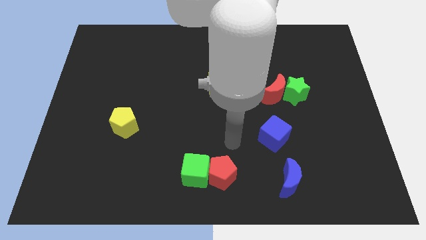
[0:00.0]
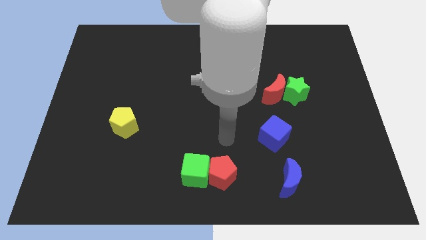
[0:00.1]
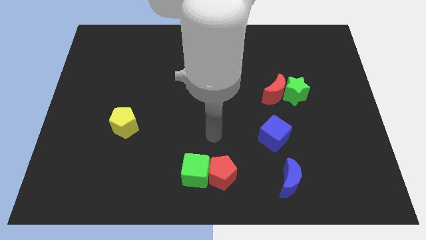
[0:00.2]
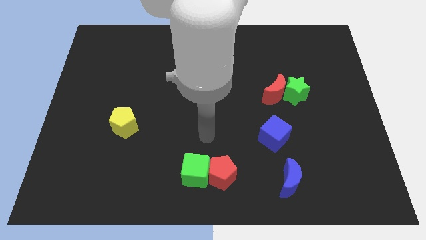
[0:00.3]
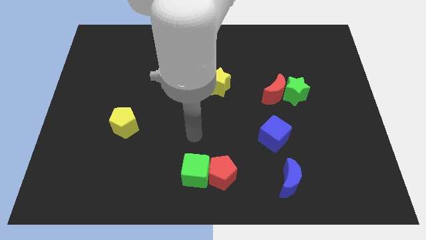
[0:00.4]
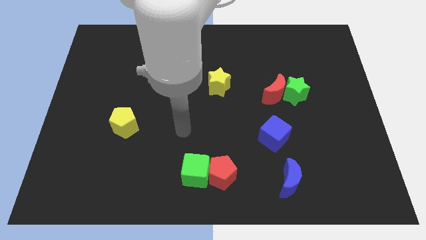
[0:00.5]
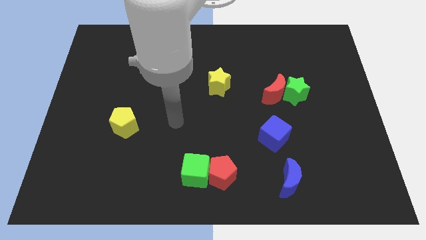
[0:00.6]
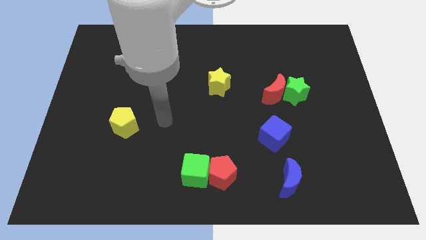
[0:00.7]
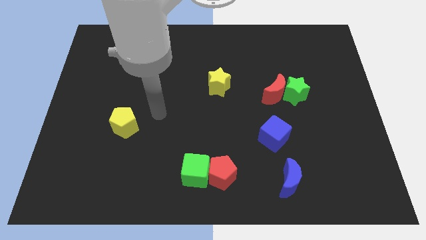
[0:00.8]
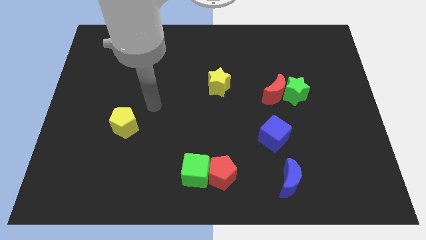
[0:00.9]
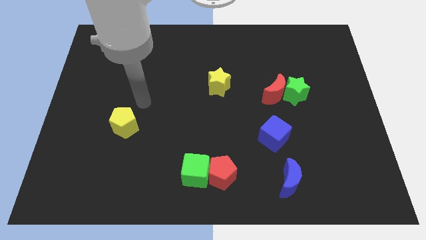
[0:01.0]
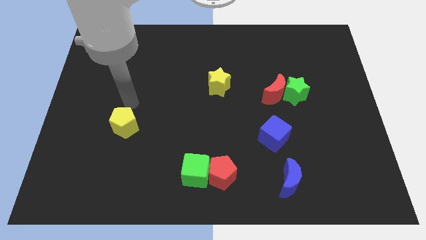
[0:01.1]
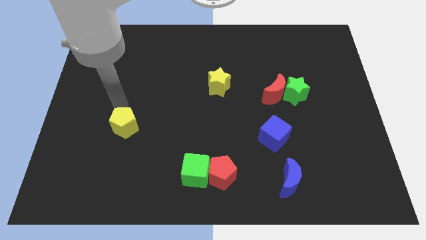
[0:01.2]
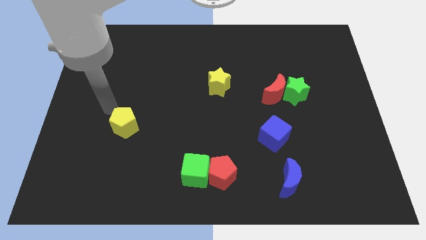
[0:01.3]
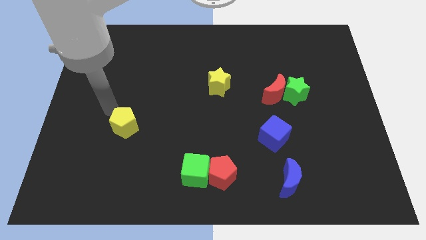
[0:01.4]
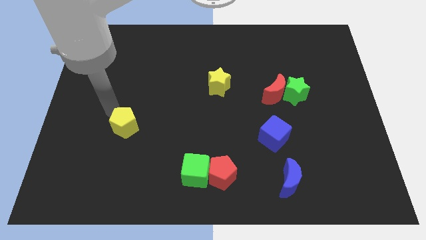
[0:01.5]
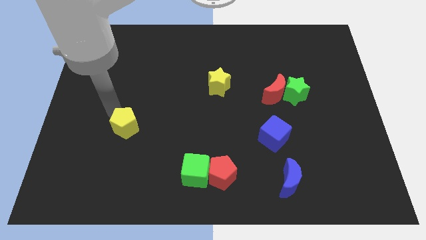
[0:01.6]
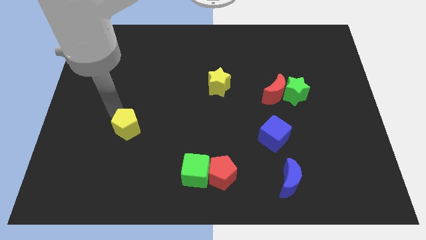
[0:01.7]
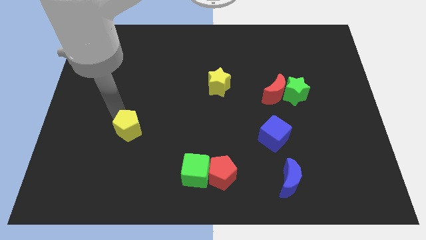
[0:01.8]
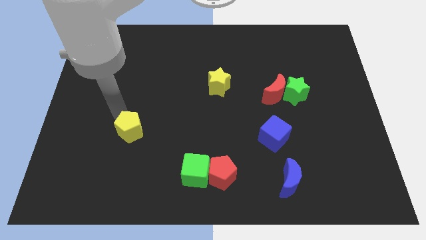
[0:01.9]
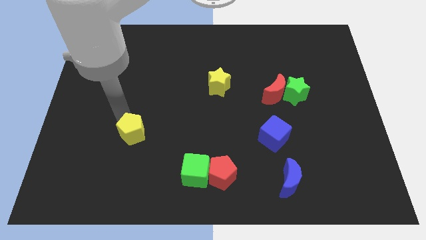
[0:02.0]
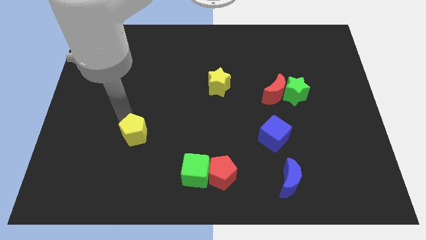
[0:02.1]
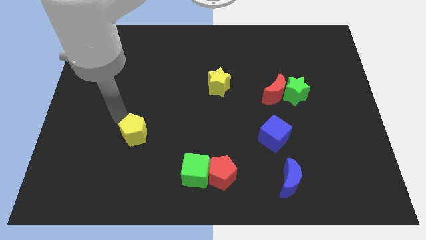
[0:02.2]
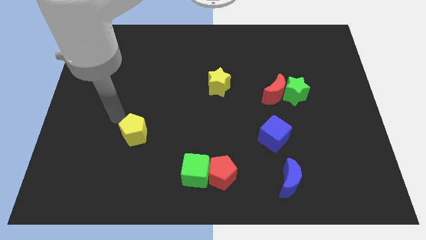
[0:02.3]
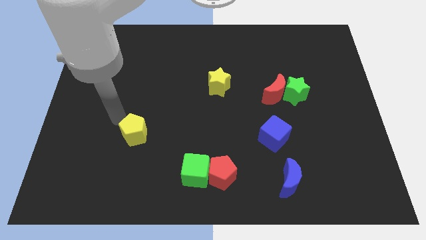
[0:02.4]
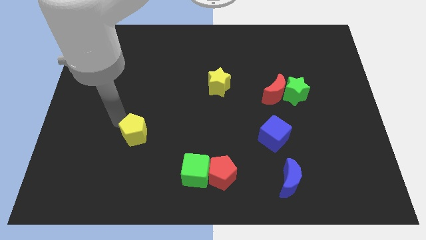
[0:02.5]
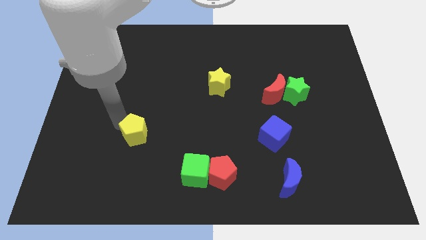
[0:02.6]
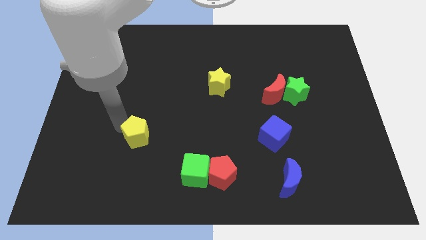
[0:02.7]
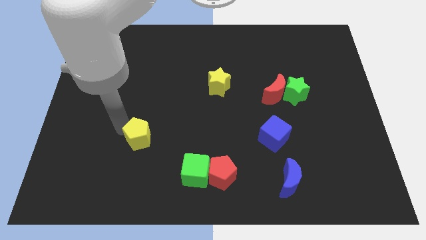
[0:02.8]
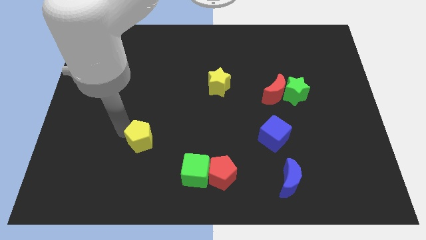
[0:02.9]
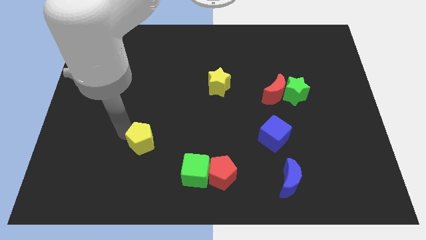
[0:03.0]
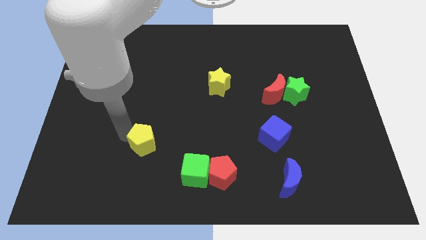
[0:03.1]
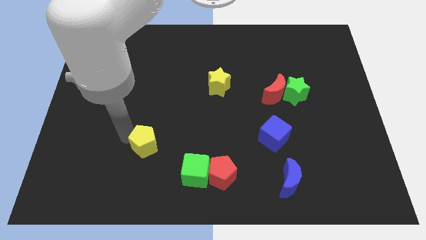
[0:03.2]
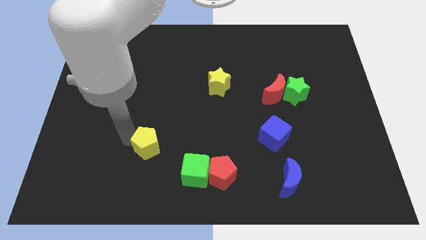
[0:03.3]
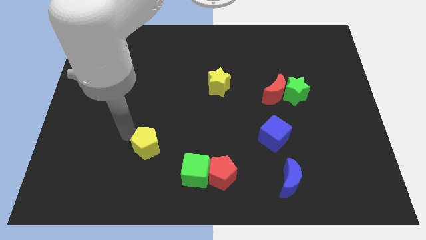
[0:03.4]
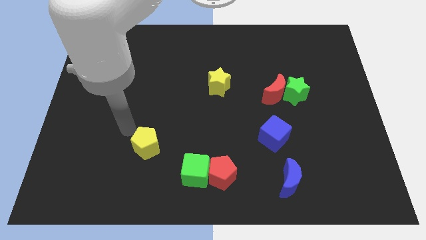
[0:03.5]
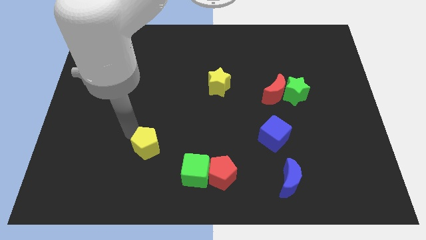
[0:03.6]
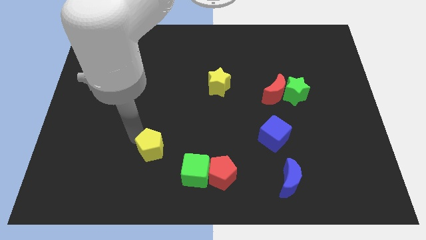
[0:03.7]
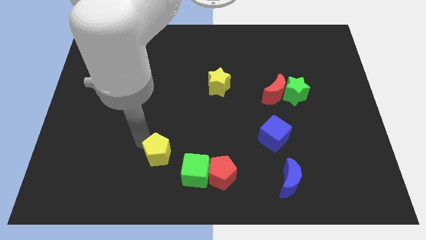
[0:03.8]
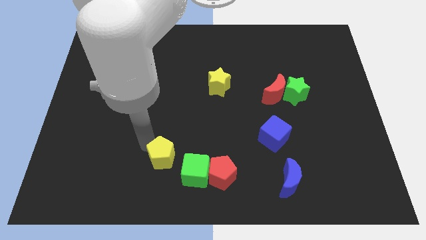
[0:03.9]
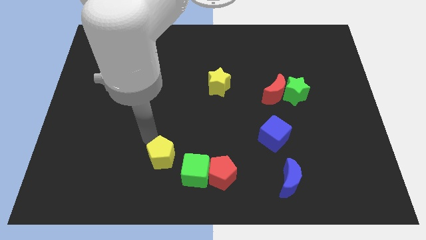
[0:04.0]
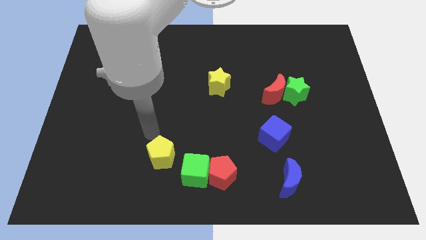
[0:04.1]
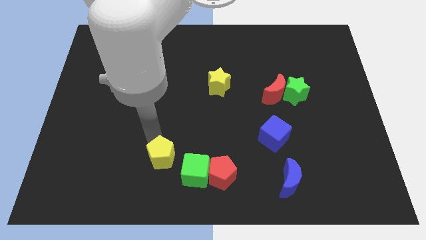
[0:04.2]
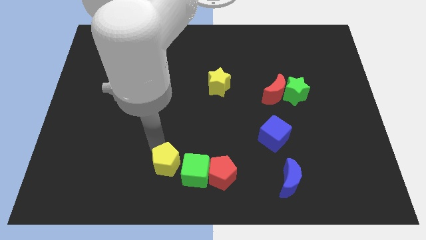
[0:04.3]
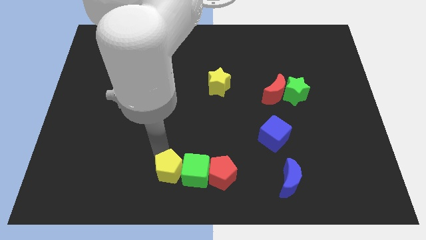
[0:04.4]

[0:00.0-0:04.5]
move the yellow pentagon to the bottom side

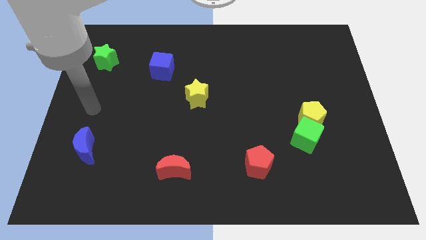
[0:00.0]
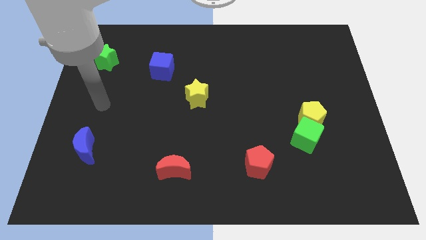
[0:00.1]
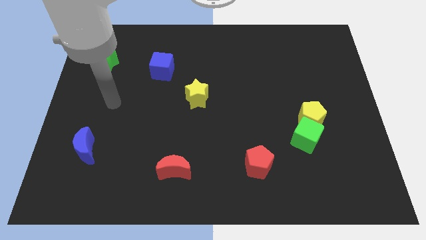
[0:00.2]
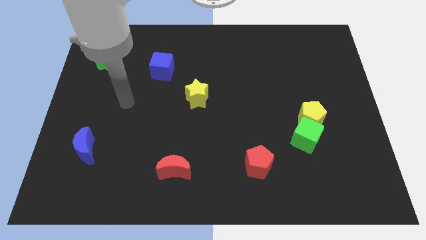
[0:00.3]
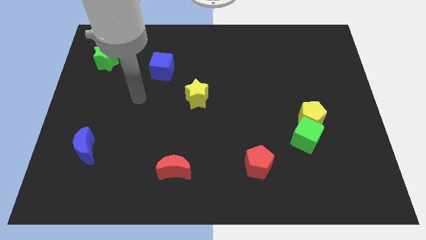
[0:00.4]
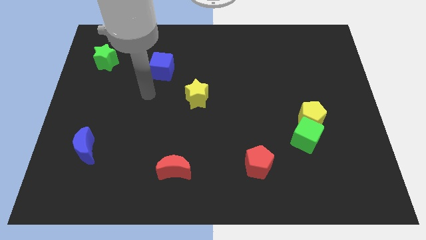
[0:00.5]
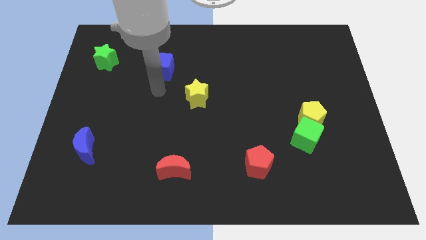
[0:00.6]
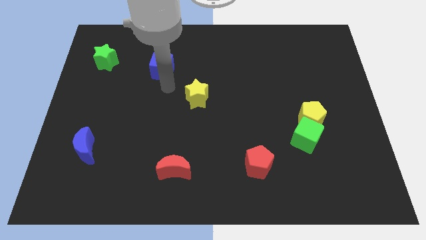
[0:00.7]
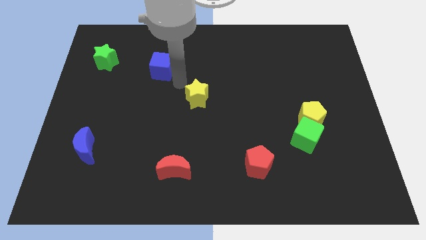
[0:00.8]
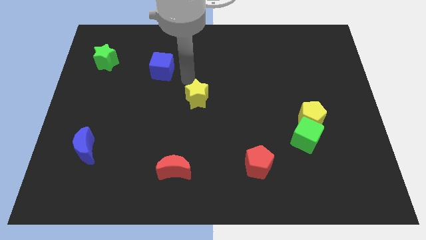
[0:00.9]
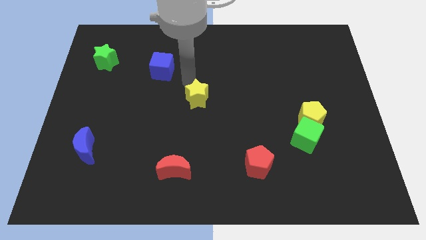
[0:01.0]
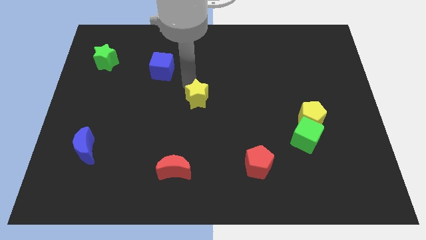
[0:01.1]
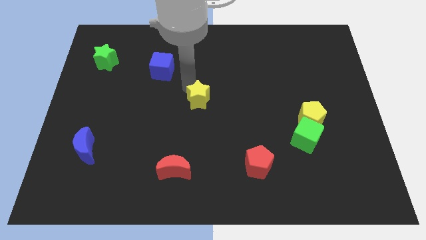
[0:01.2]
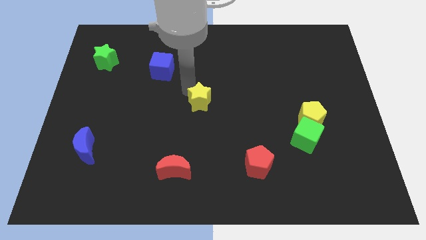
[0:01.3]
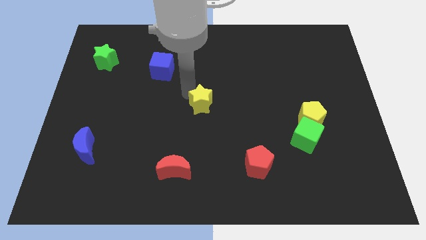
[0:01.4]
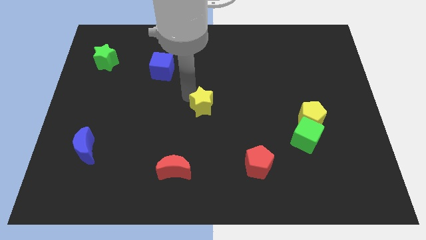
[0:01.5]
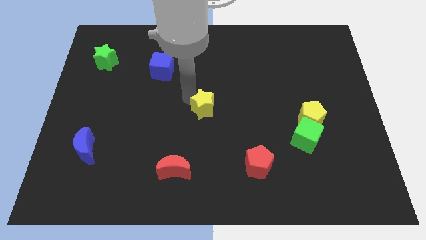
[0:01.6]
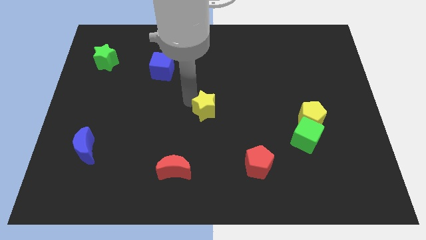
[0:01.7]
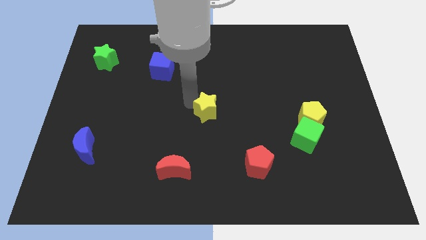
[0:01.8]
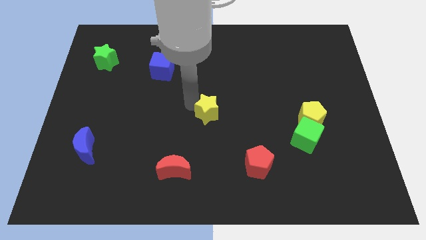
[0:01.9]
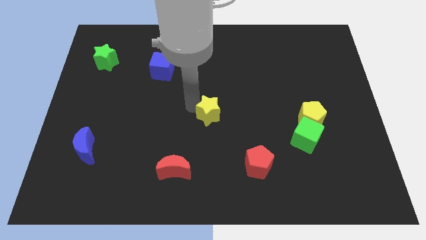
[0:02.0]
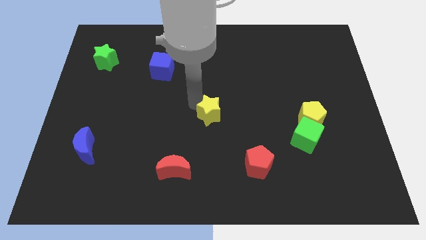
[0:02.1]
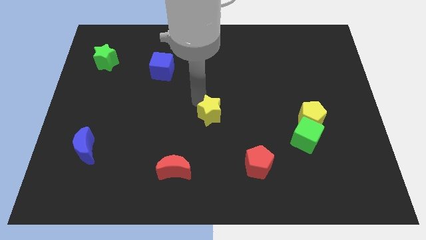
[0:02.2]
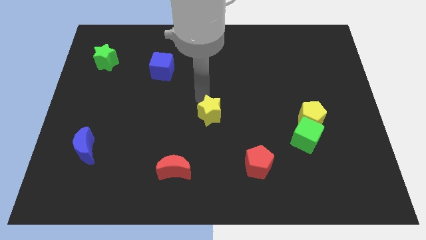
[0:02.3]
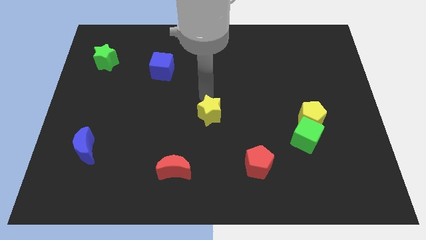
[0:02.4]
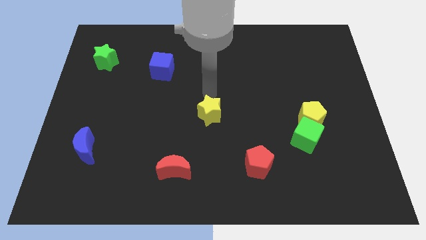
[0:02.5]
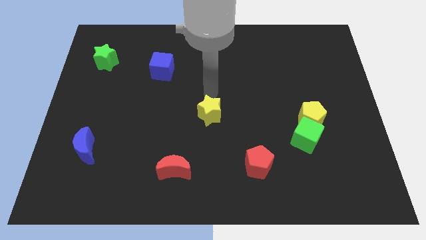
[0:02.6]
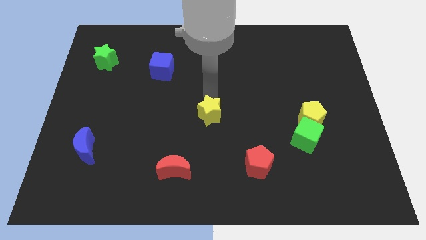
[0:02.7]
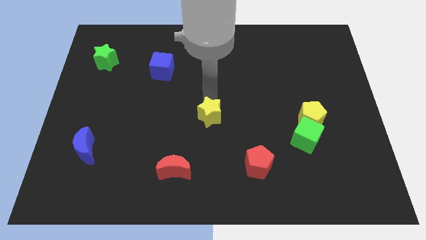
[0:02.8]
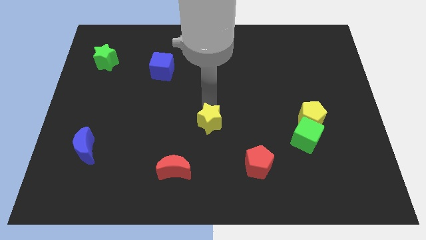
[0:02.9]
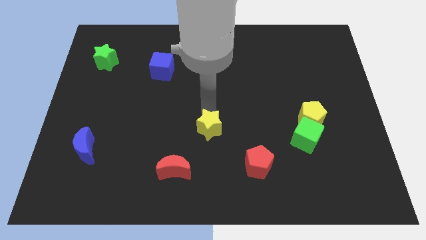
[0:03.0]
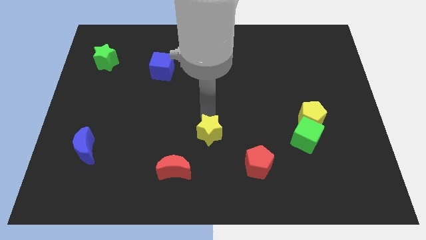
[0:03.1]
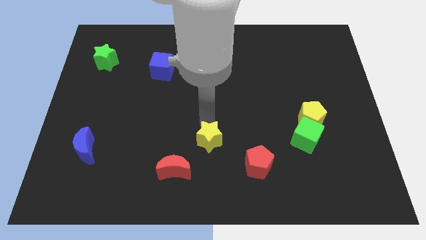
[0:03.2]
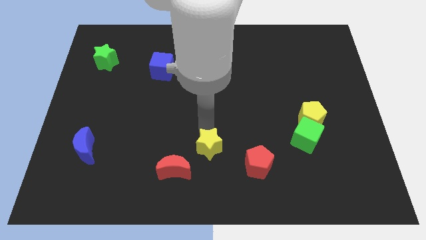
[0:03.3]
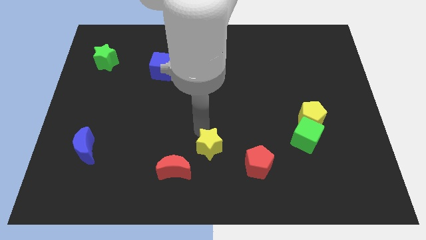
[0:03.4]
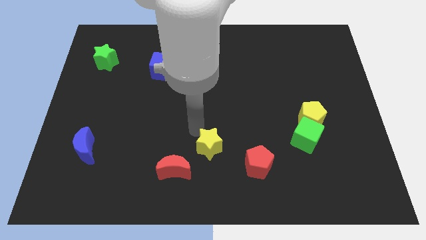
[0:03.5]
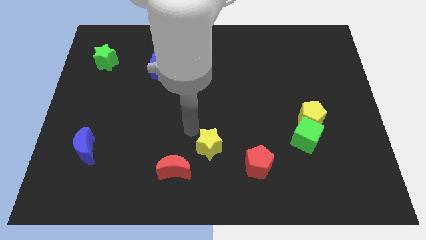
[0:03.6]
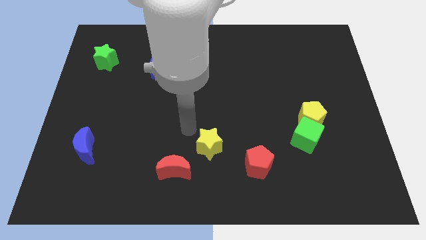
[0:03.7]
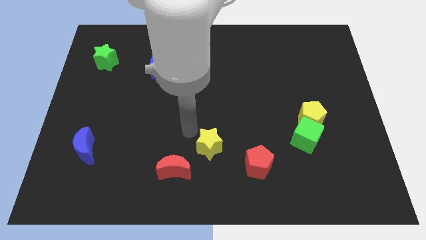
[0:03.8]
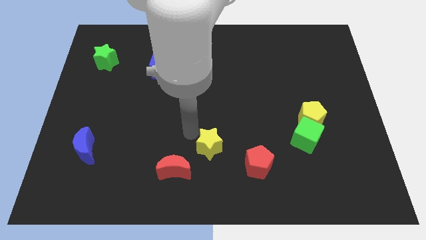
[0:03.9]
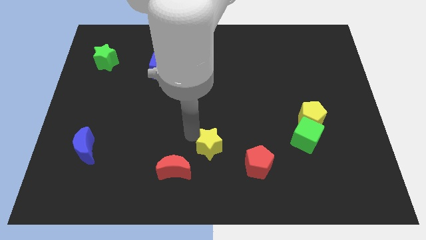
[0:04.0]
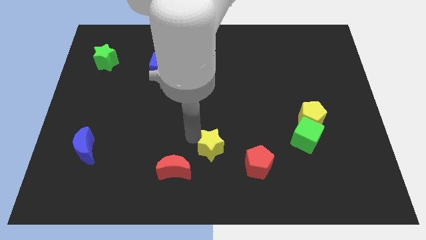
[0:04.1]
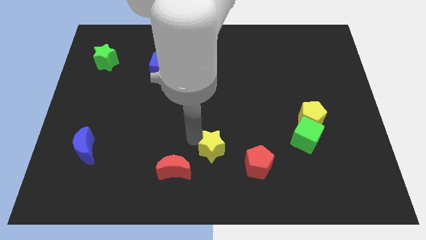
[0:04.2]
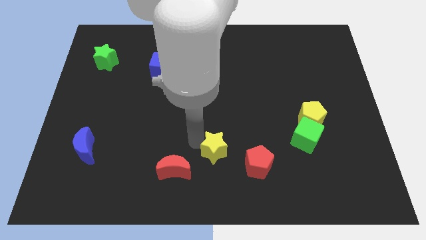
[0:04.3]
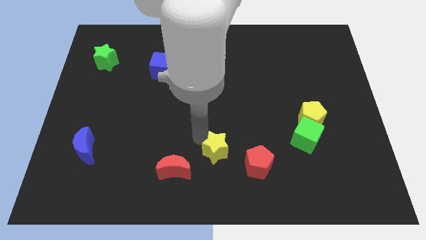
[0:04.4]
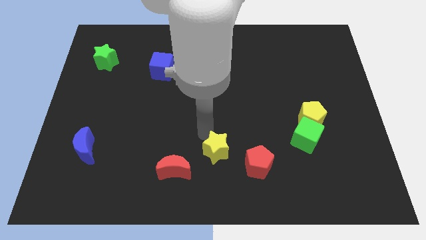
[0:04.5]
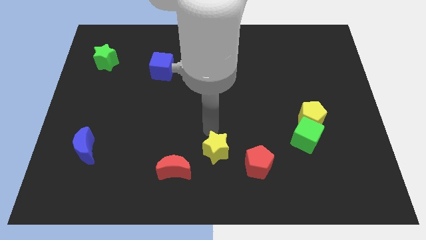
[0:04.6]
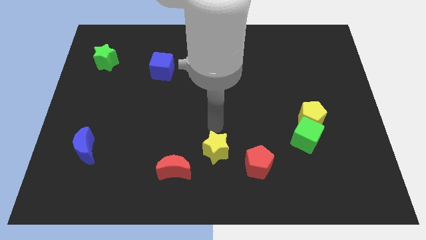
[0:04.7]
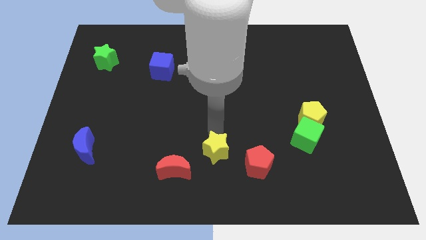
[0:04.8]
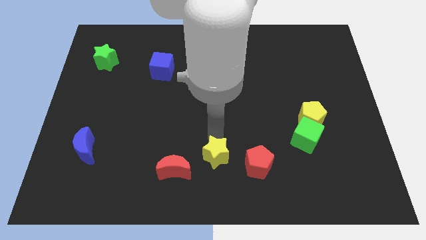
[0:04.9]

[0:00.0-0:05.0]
push the yellow star to the bottom
